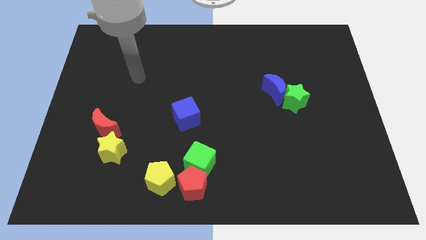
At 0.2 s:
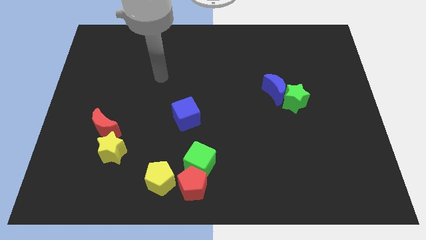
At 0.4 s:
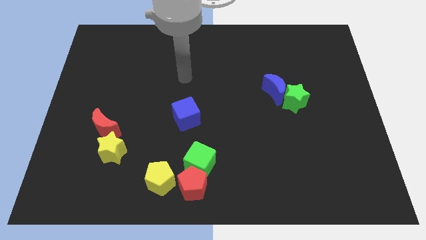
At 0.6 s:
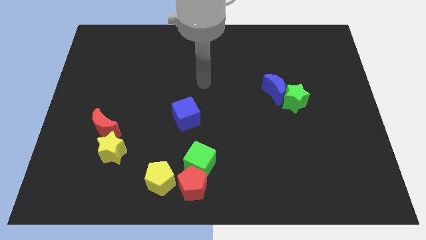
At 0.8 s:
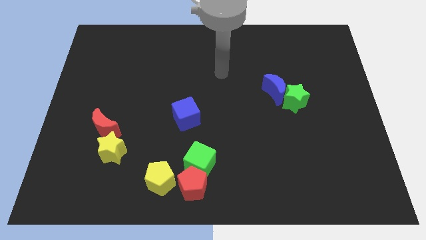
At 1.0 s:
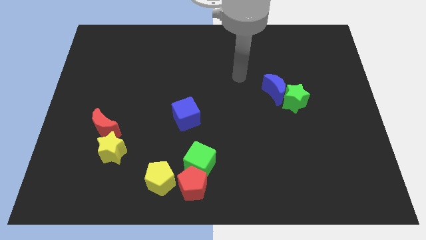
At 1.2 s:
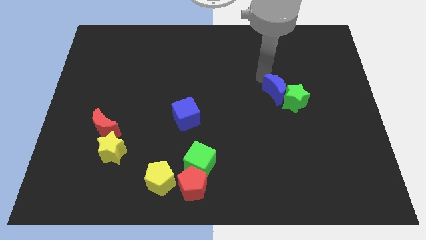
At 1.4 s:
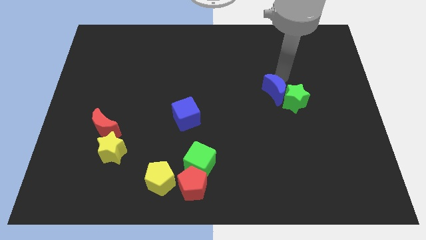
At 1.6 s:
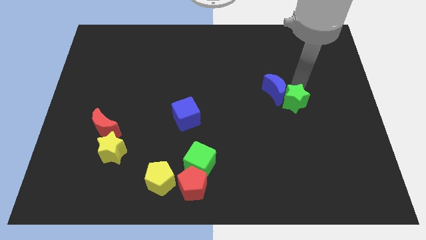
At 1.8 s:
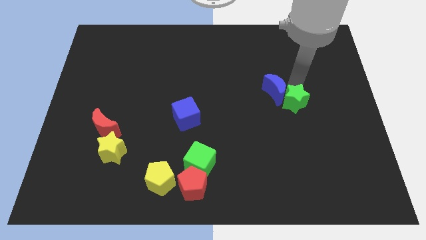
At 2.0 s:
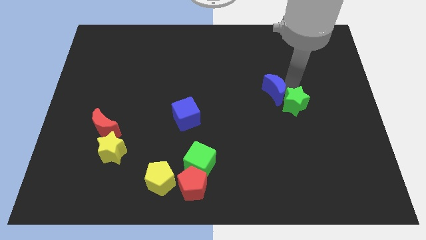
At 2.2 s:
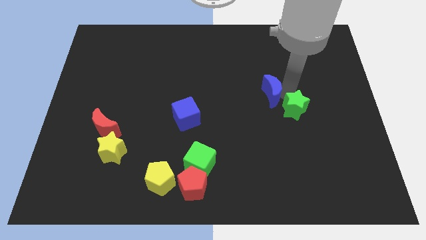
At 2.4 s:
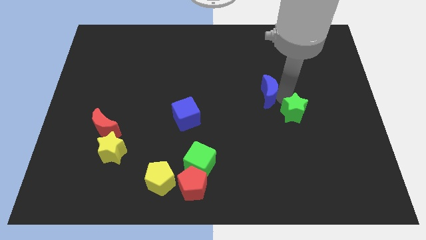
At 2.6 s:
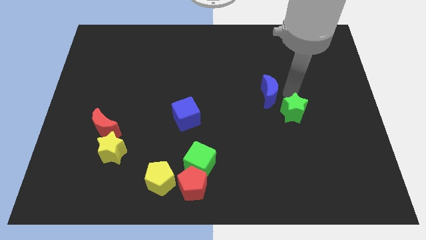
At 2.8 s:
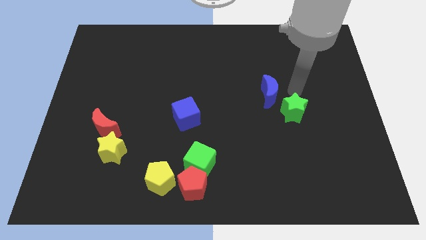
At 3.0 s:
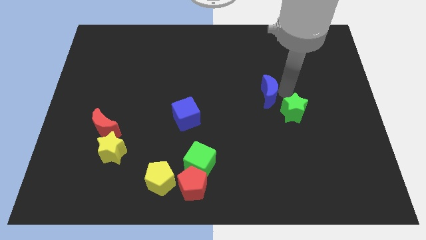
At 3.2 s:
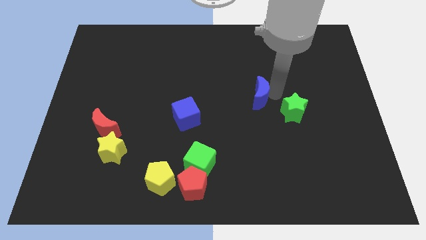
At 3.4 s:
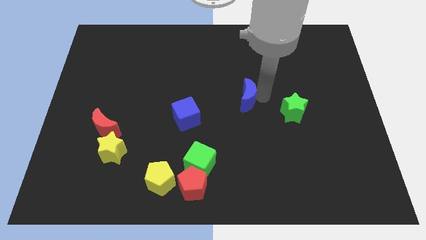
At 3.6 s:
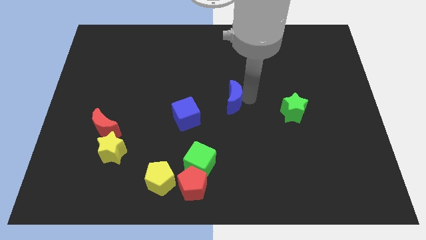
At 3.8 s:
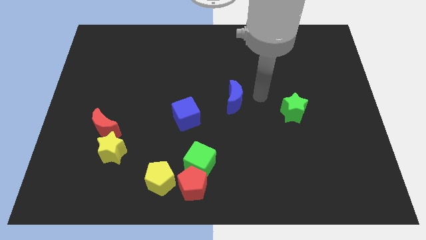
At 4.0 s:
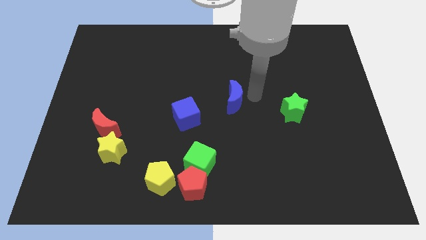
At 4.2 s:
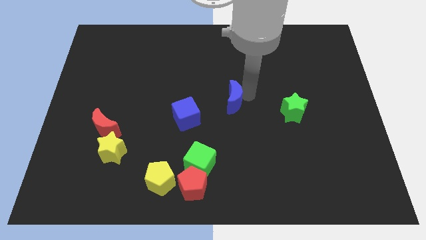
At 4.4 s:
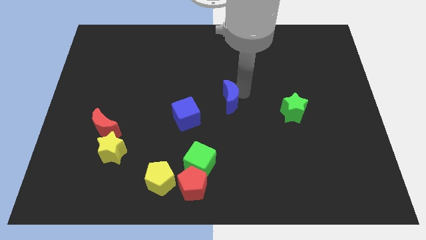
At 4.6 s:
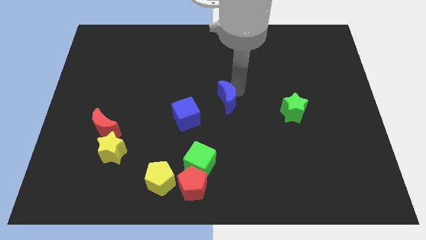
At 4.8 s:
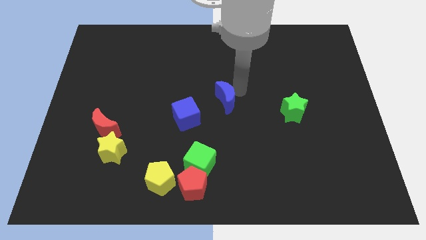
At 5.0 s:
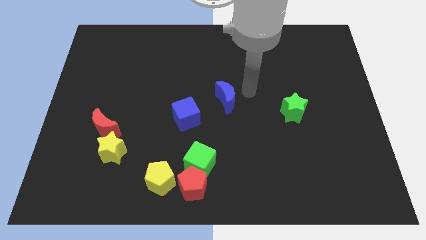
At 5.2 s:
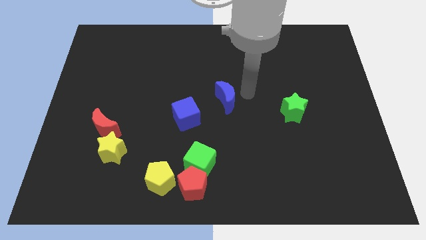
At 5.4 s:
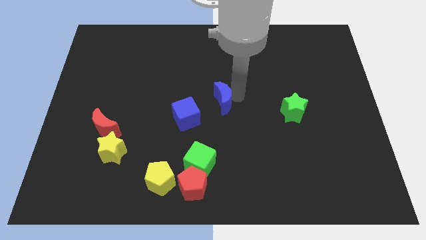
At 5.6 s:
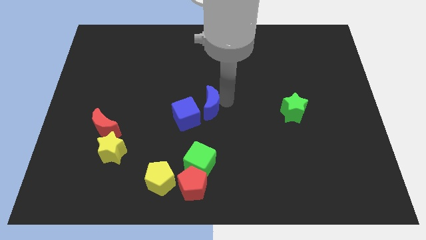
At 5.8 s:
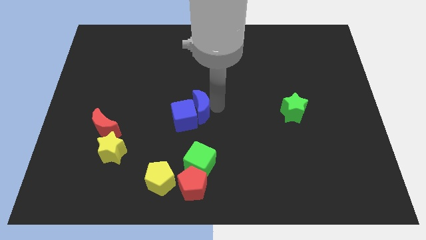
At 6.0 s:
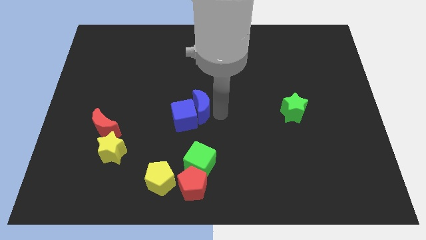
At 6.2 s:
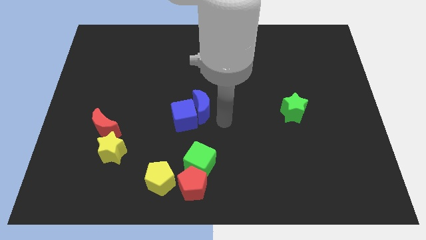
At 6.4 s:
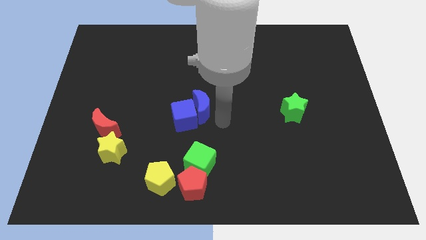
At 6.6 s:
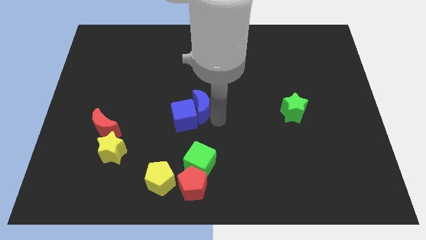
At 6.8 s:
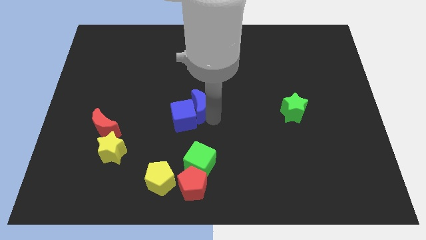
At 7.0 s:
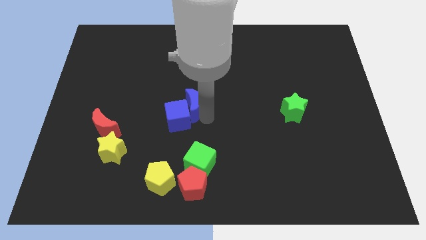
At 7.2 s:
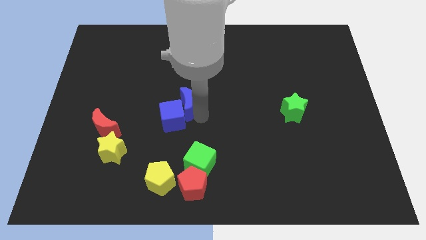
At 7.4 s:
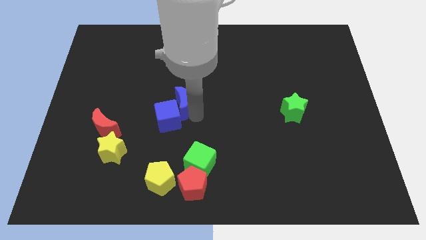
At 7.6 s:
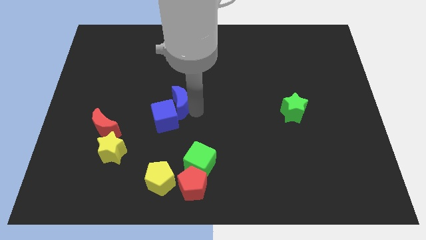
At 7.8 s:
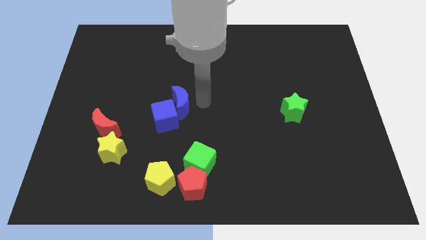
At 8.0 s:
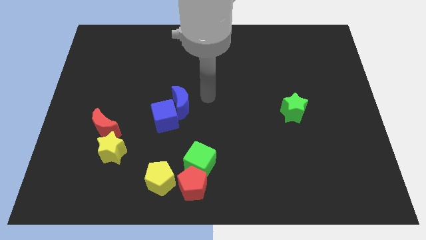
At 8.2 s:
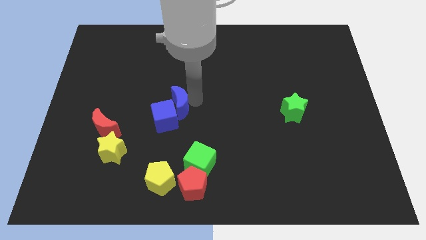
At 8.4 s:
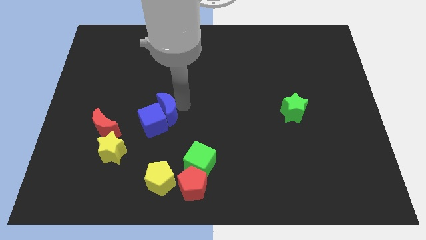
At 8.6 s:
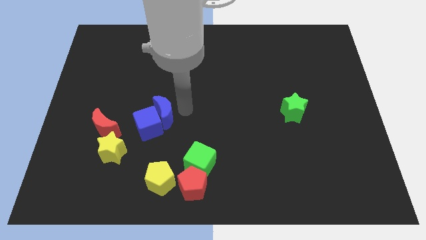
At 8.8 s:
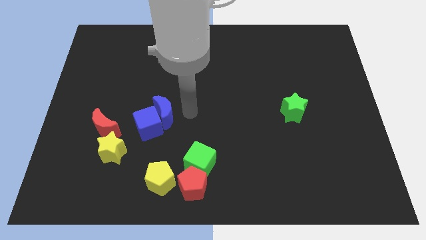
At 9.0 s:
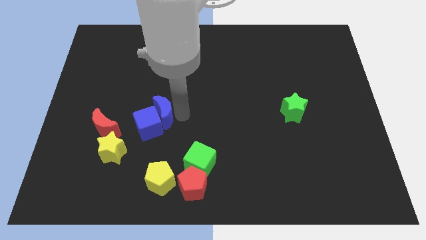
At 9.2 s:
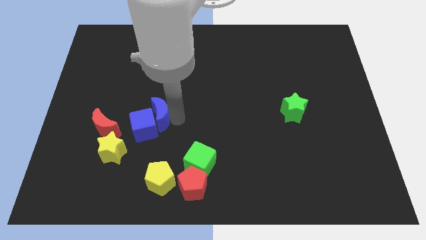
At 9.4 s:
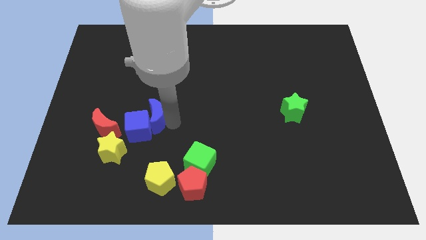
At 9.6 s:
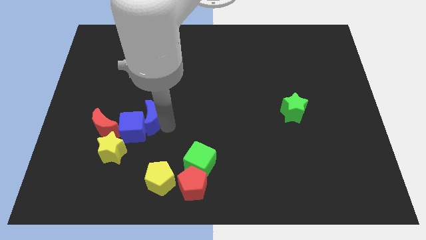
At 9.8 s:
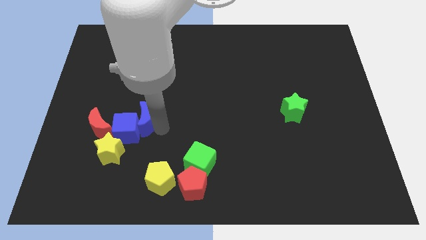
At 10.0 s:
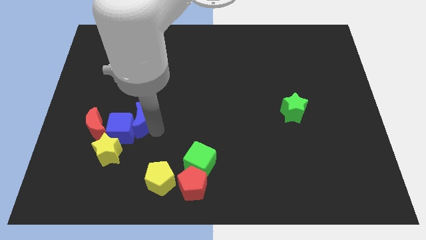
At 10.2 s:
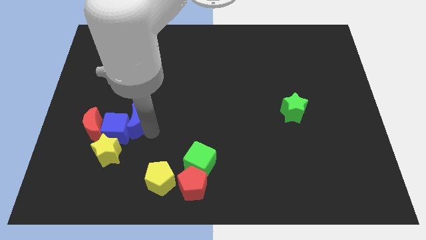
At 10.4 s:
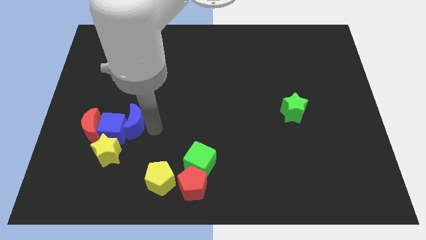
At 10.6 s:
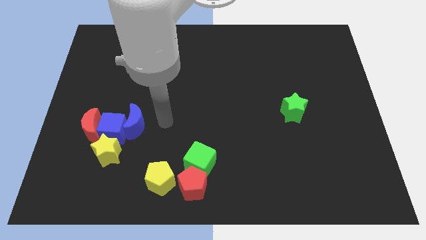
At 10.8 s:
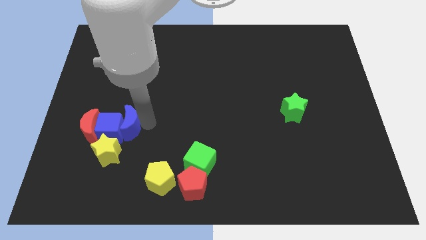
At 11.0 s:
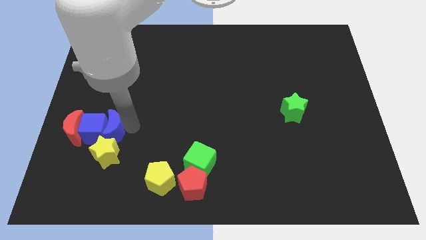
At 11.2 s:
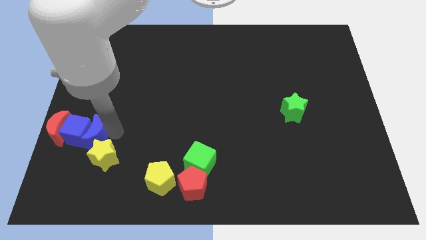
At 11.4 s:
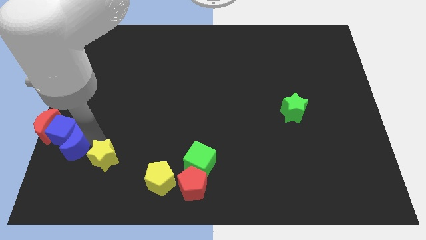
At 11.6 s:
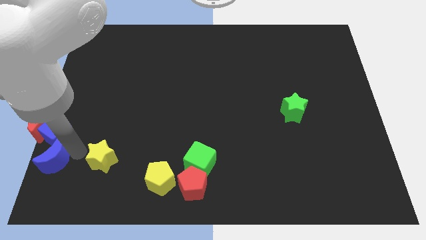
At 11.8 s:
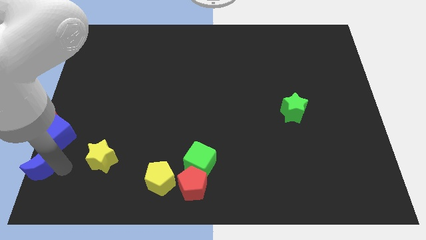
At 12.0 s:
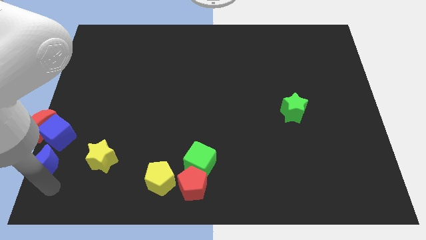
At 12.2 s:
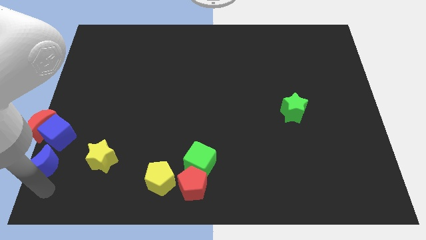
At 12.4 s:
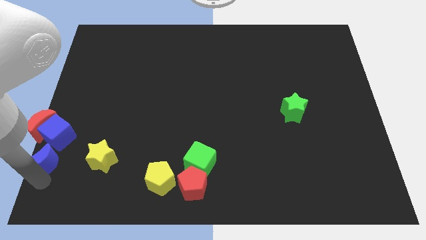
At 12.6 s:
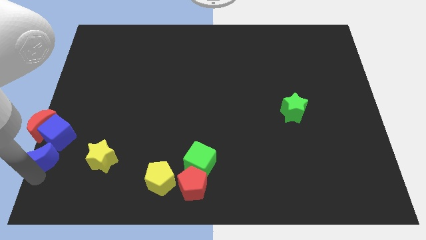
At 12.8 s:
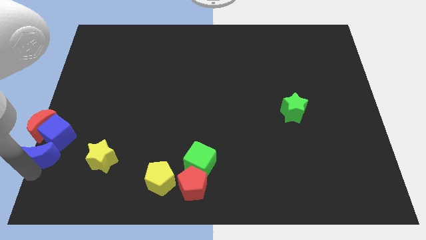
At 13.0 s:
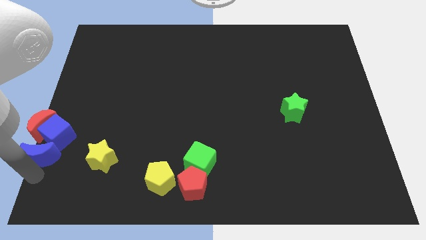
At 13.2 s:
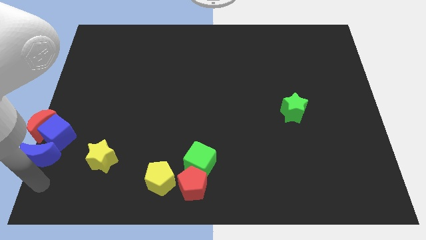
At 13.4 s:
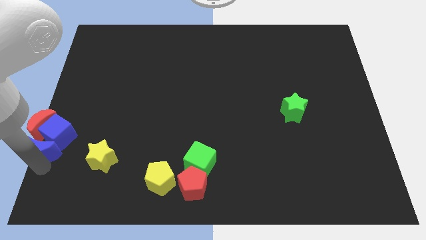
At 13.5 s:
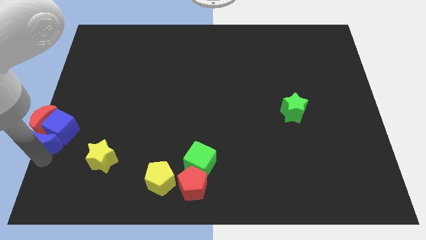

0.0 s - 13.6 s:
move the blue moon next to the red moon

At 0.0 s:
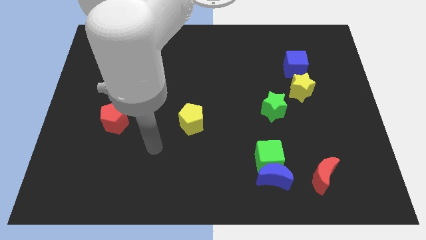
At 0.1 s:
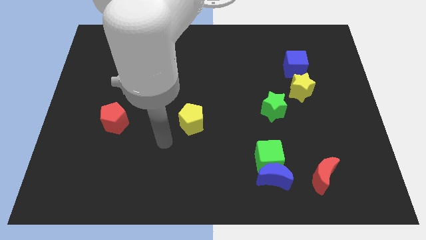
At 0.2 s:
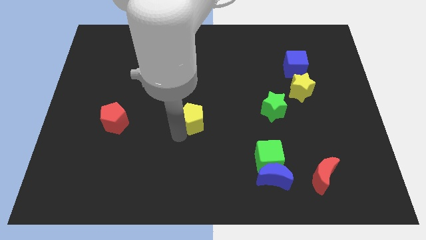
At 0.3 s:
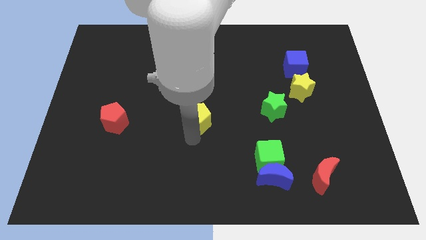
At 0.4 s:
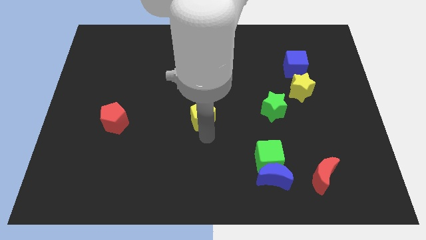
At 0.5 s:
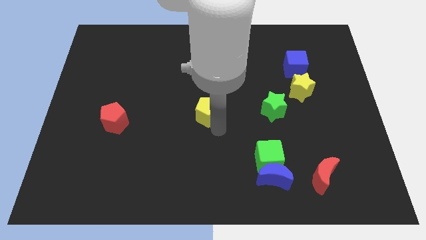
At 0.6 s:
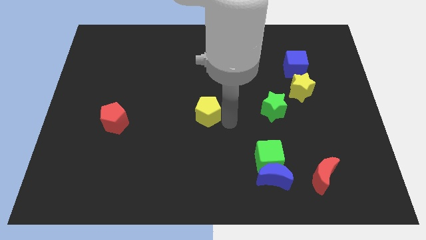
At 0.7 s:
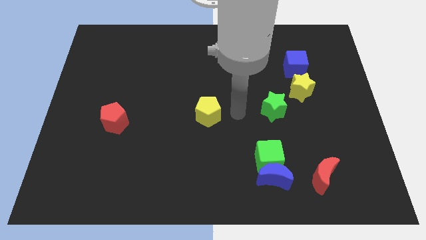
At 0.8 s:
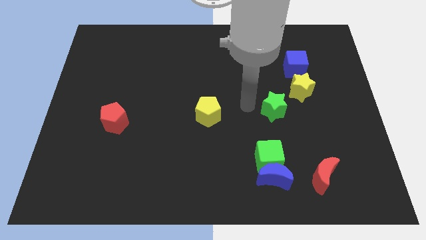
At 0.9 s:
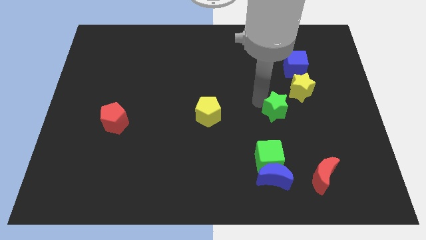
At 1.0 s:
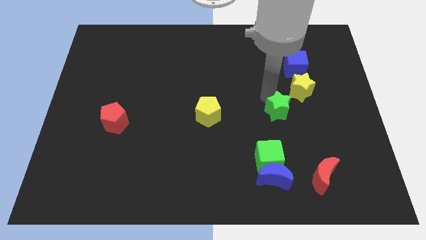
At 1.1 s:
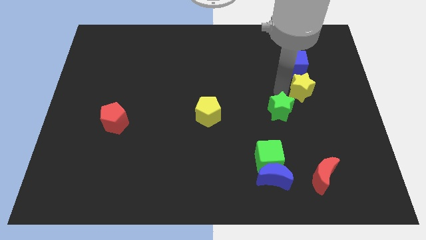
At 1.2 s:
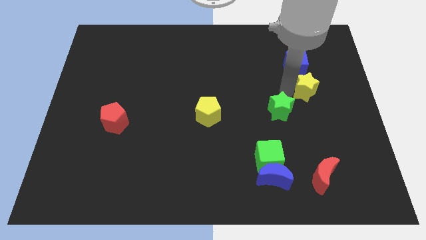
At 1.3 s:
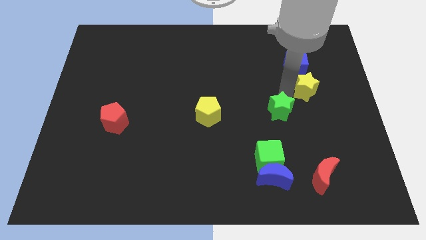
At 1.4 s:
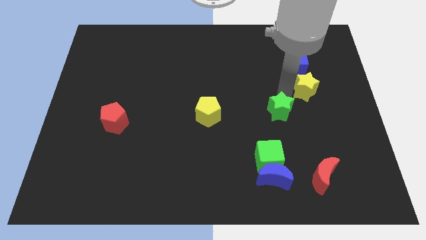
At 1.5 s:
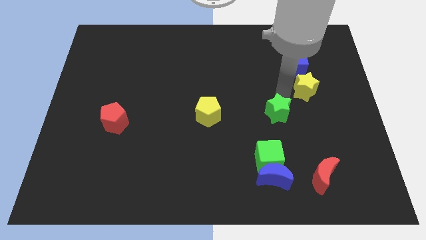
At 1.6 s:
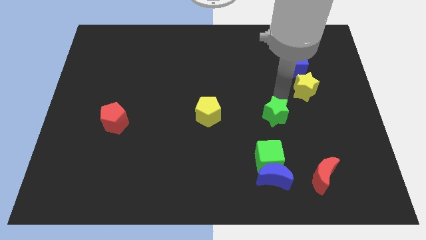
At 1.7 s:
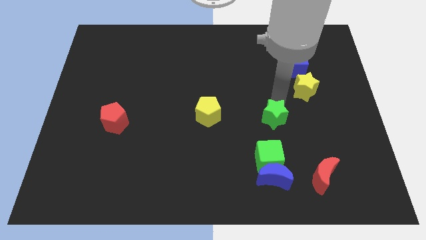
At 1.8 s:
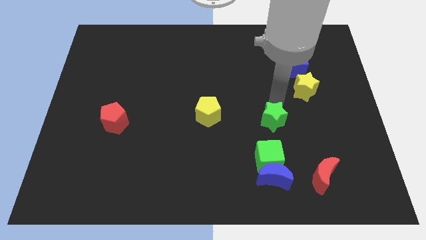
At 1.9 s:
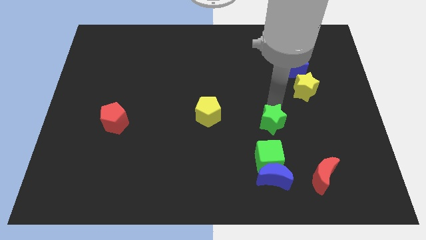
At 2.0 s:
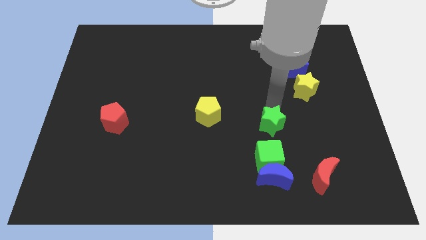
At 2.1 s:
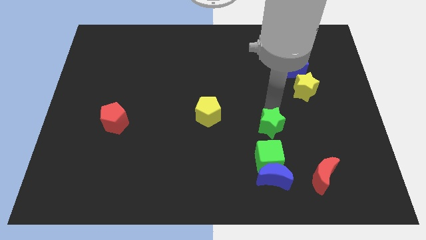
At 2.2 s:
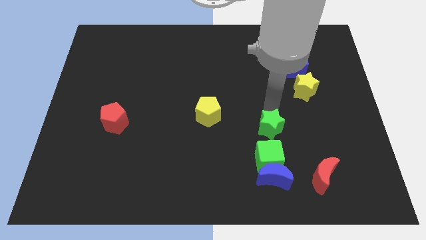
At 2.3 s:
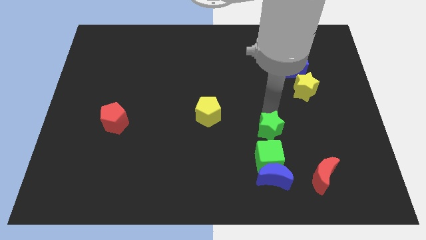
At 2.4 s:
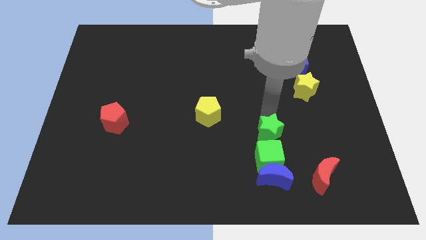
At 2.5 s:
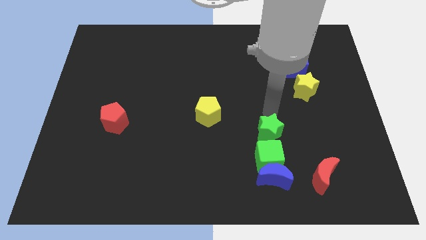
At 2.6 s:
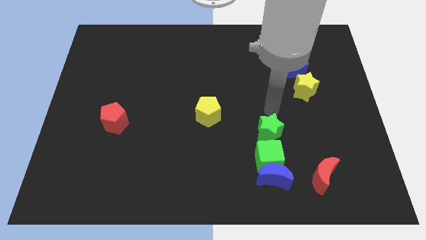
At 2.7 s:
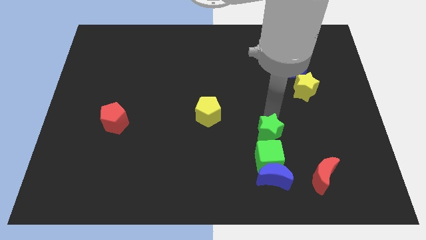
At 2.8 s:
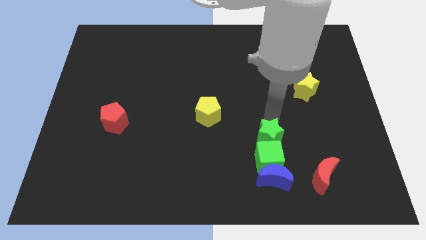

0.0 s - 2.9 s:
move the green star next to the green cube
